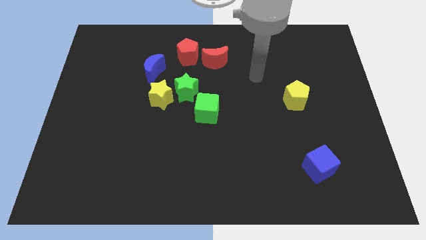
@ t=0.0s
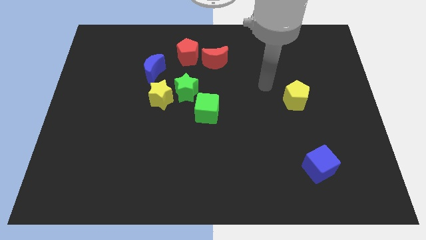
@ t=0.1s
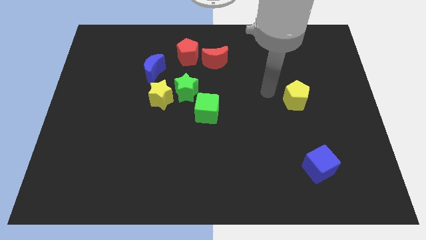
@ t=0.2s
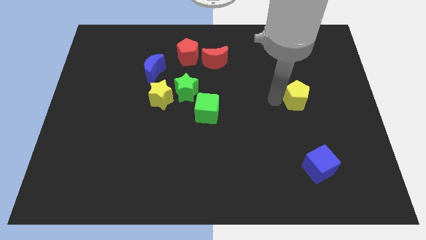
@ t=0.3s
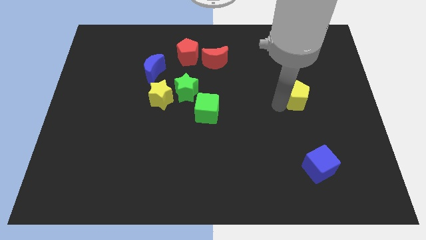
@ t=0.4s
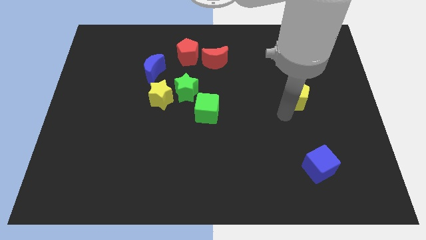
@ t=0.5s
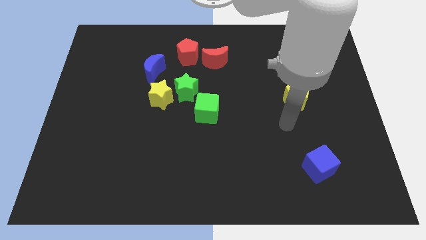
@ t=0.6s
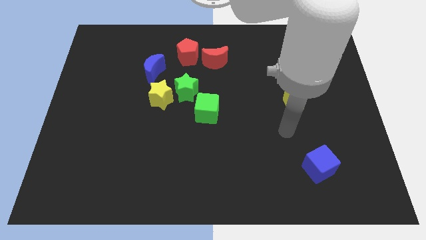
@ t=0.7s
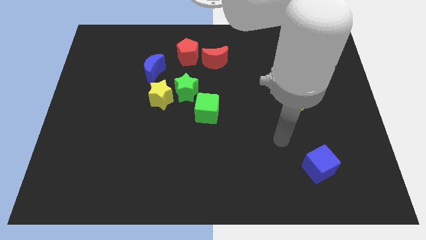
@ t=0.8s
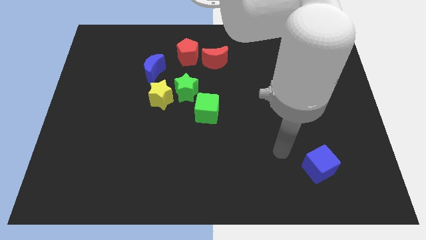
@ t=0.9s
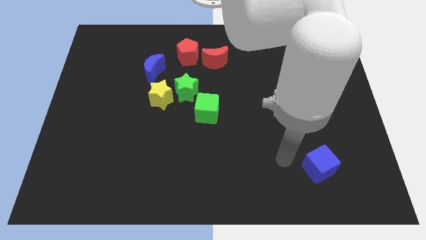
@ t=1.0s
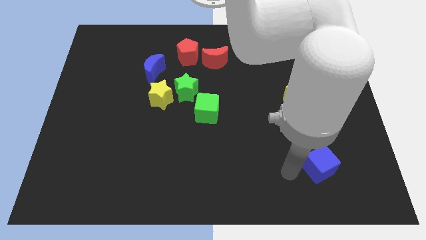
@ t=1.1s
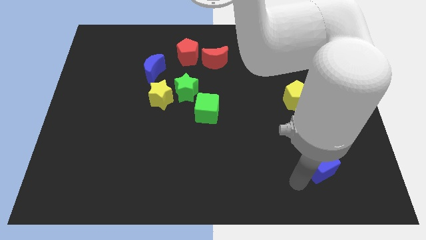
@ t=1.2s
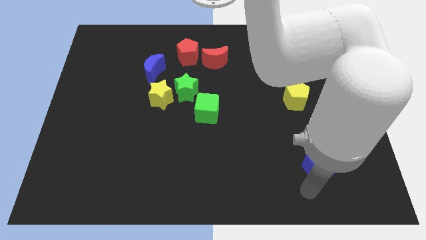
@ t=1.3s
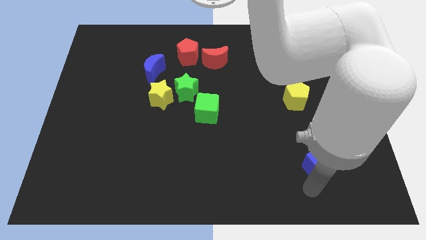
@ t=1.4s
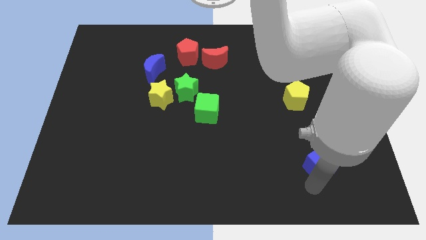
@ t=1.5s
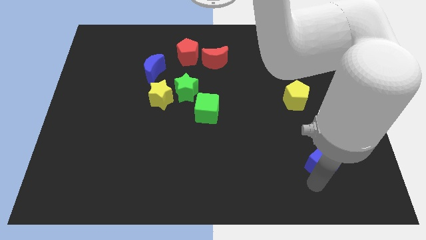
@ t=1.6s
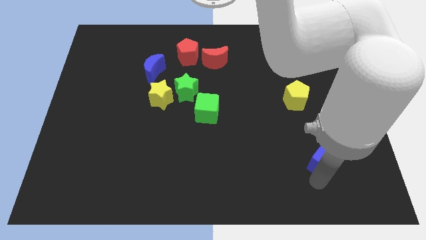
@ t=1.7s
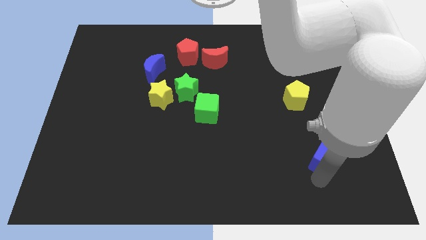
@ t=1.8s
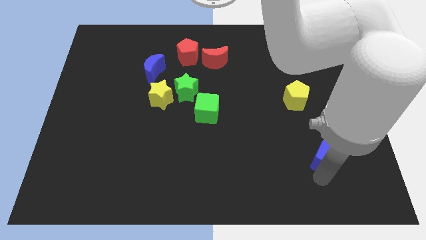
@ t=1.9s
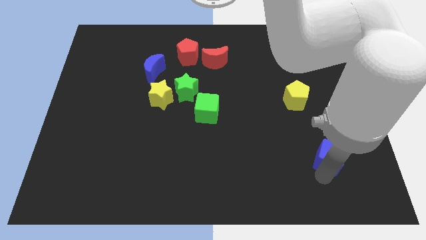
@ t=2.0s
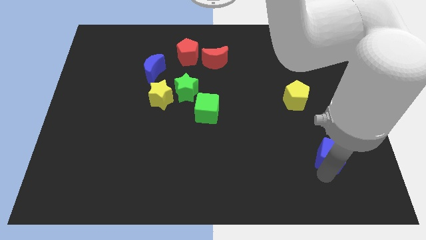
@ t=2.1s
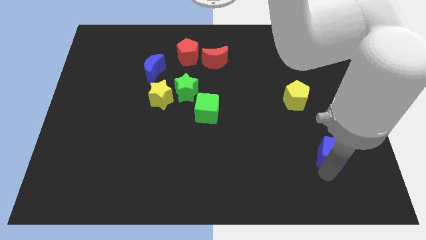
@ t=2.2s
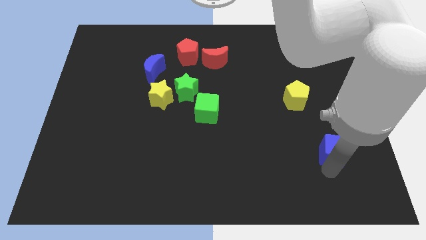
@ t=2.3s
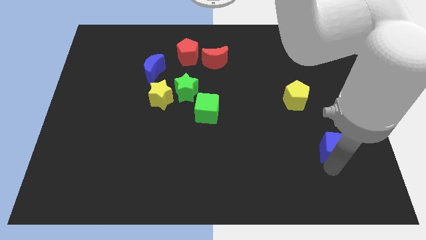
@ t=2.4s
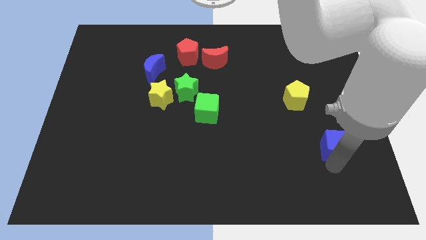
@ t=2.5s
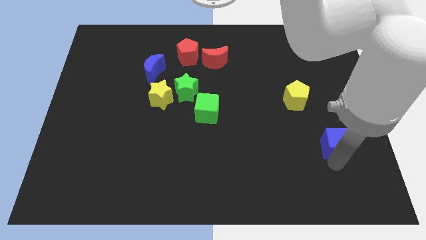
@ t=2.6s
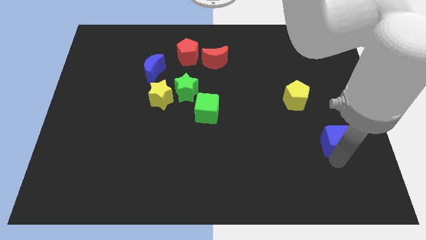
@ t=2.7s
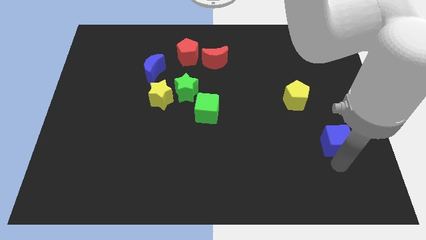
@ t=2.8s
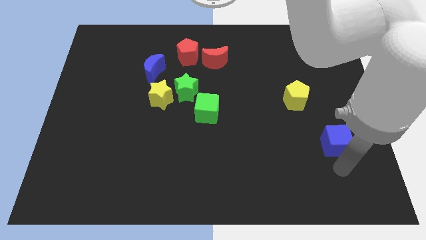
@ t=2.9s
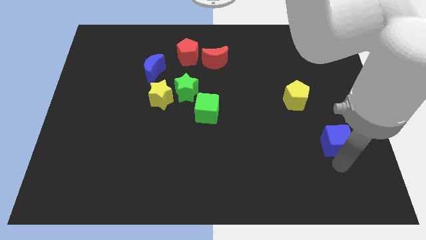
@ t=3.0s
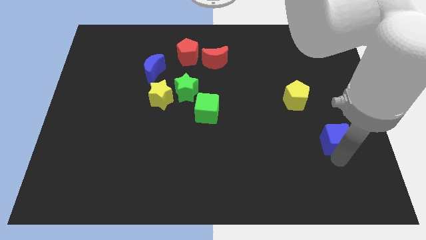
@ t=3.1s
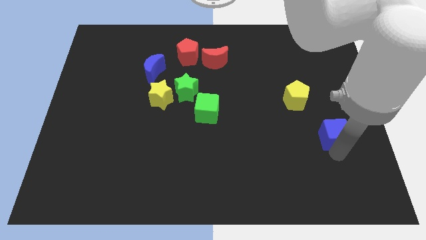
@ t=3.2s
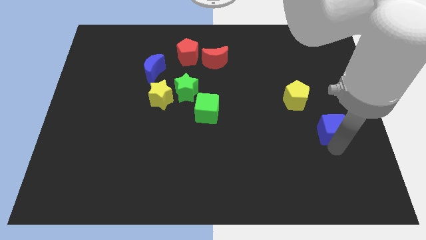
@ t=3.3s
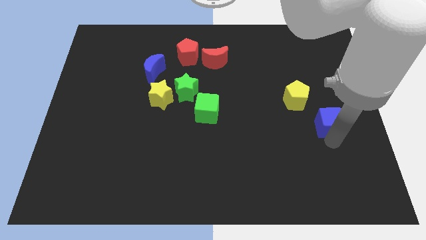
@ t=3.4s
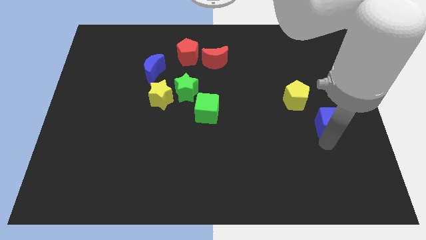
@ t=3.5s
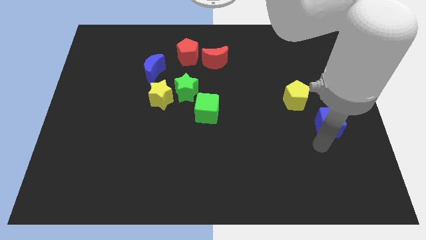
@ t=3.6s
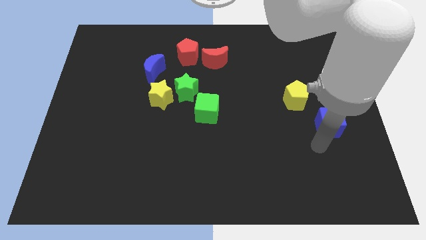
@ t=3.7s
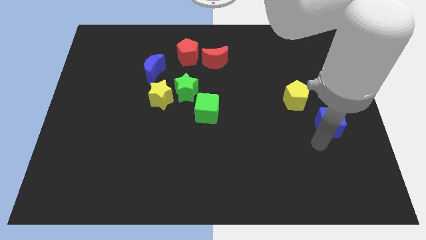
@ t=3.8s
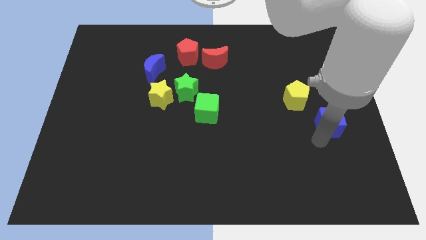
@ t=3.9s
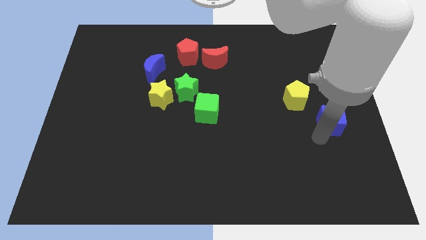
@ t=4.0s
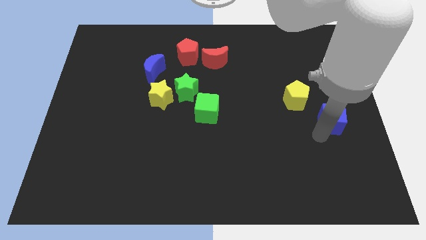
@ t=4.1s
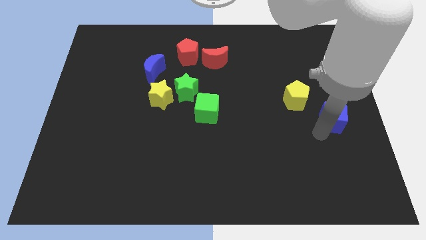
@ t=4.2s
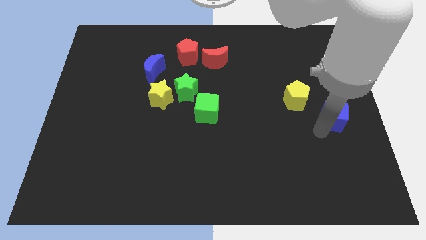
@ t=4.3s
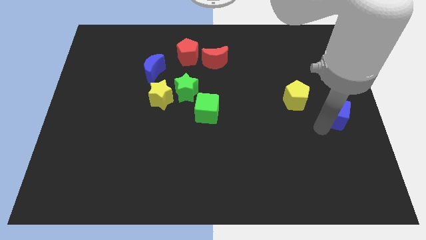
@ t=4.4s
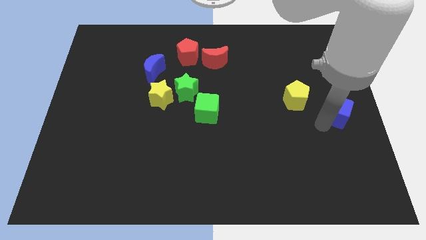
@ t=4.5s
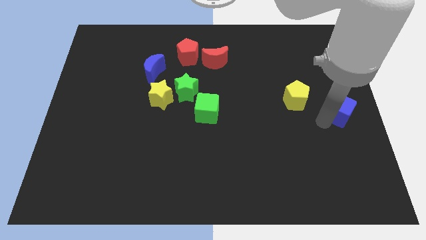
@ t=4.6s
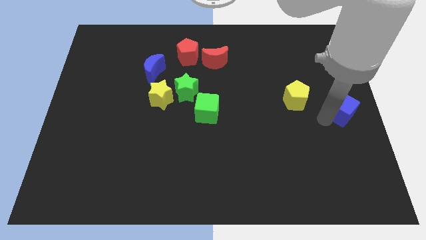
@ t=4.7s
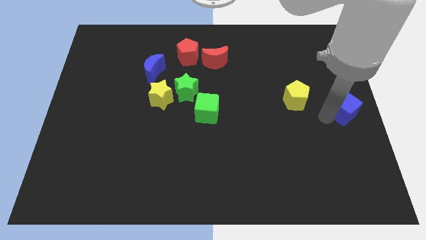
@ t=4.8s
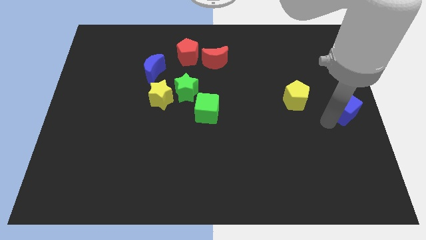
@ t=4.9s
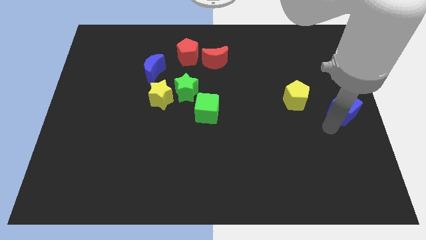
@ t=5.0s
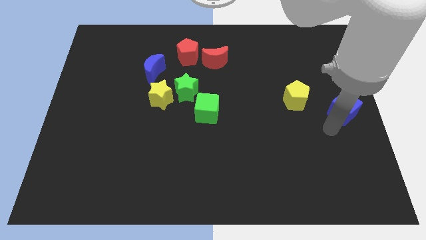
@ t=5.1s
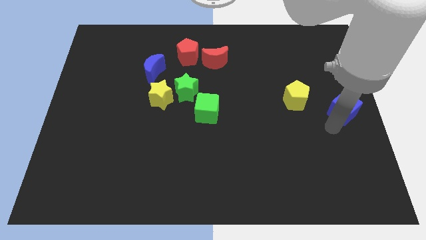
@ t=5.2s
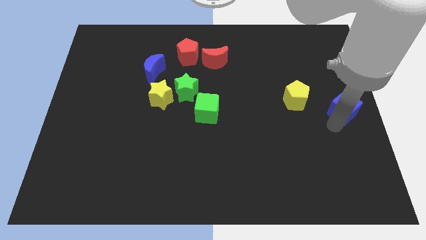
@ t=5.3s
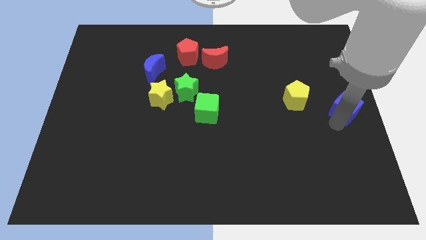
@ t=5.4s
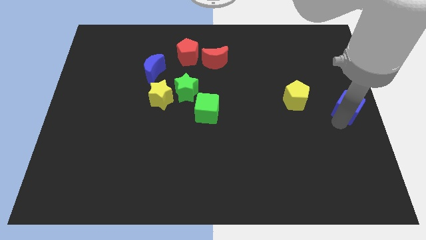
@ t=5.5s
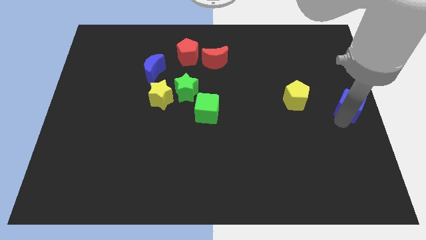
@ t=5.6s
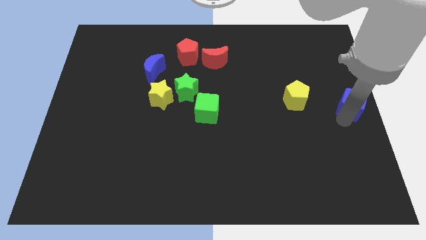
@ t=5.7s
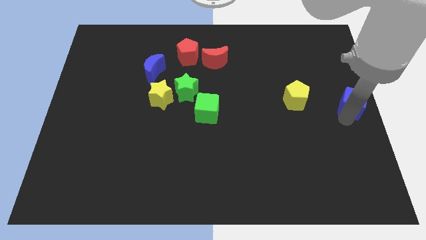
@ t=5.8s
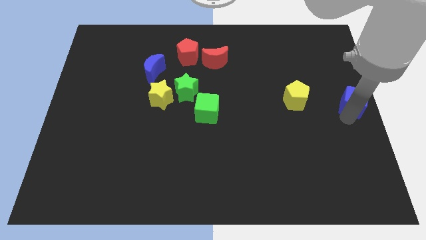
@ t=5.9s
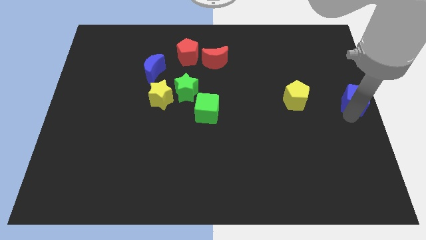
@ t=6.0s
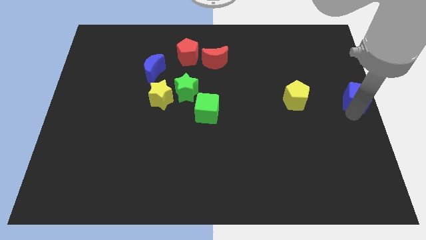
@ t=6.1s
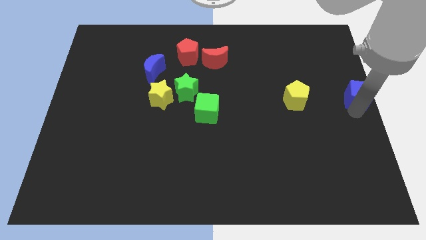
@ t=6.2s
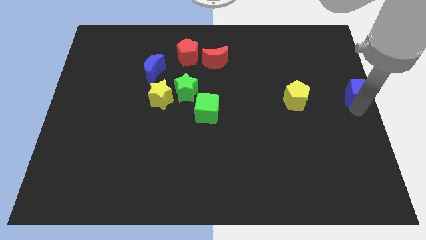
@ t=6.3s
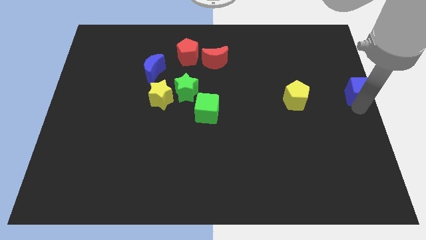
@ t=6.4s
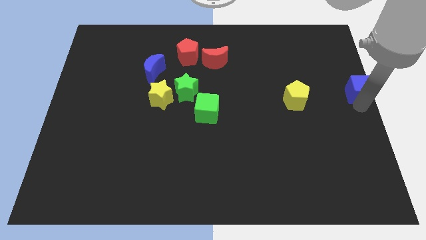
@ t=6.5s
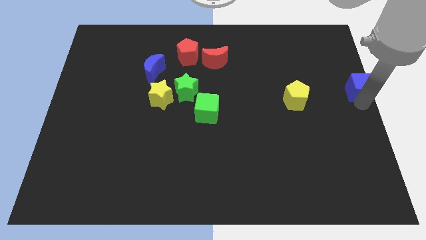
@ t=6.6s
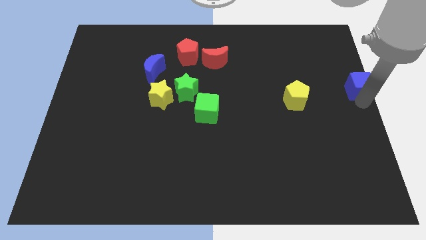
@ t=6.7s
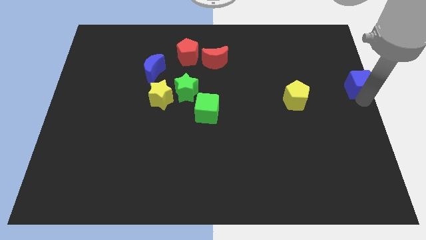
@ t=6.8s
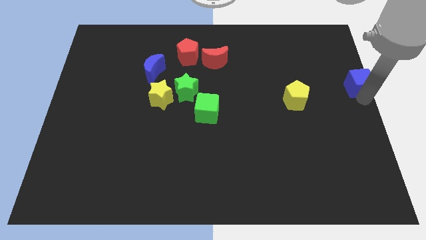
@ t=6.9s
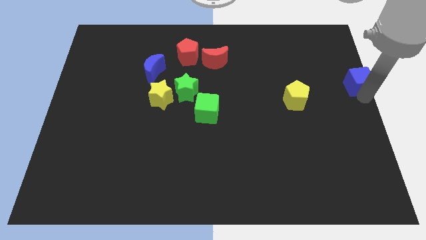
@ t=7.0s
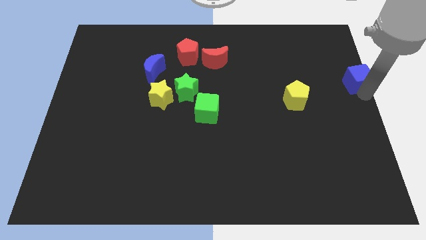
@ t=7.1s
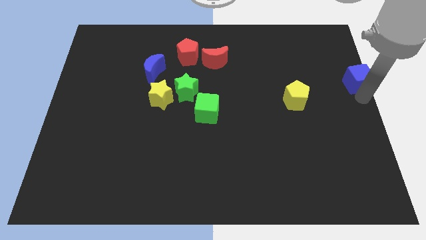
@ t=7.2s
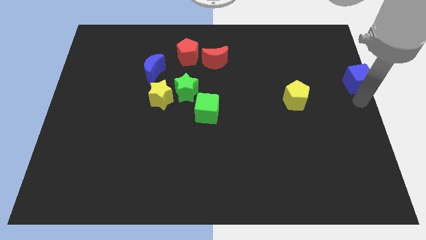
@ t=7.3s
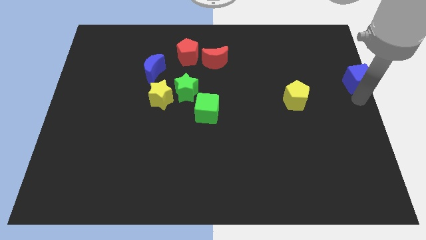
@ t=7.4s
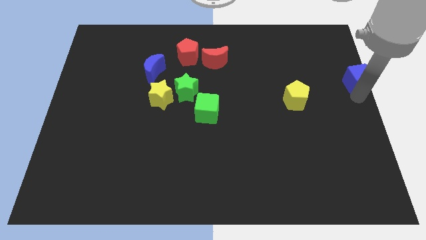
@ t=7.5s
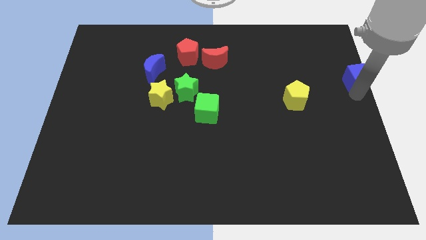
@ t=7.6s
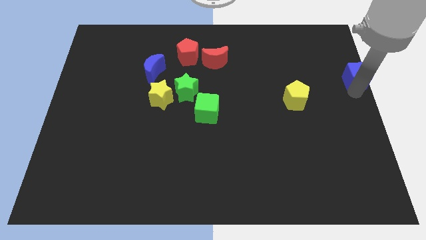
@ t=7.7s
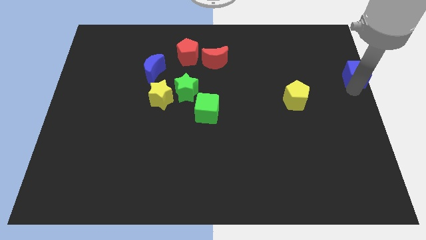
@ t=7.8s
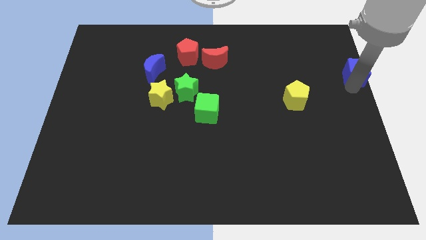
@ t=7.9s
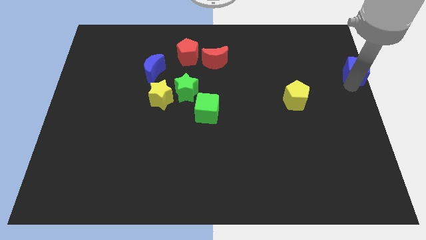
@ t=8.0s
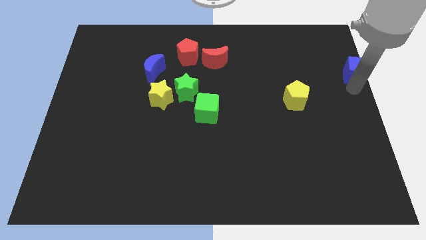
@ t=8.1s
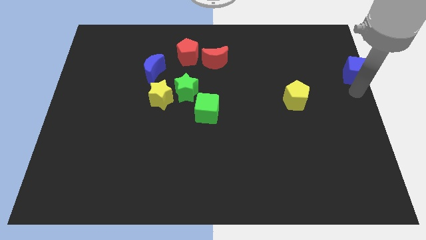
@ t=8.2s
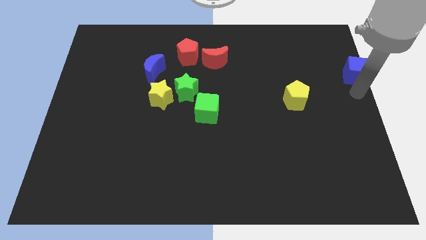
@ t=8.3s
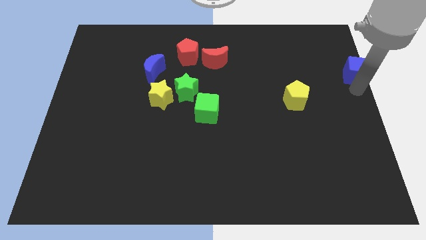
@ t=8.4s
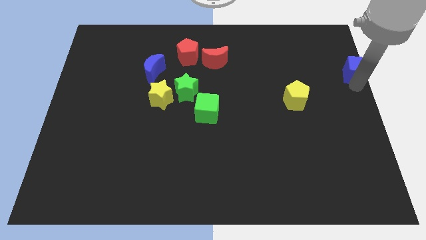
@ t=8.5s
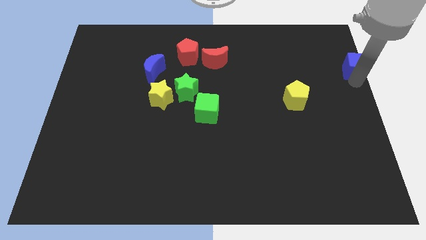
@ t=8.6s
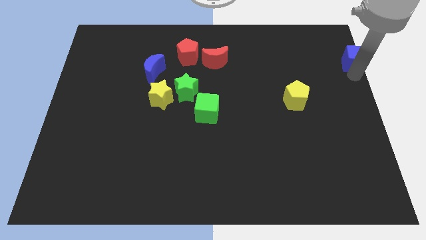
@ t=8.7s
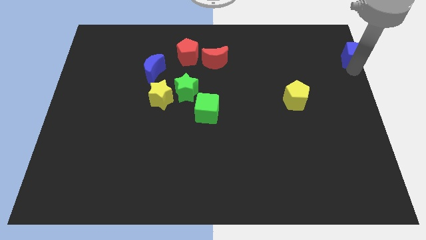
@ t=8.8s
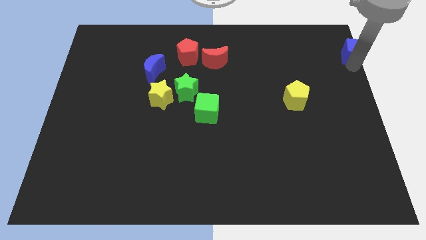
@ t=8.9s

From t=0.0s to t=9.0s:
push the blue cube to the top right corner
